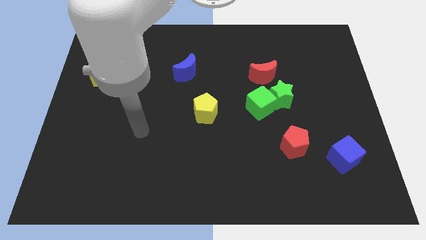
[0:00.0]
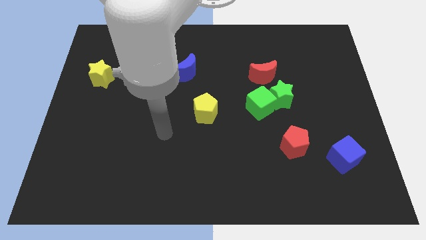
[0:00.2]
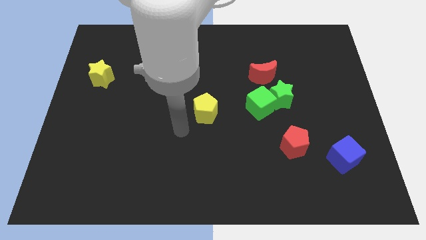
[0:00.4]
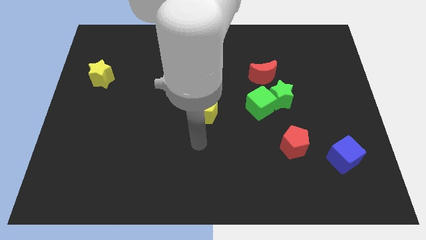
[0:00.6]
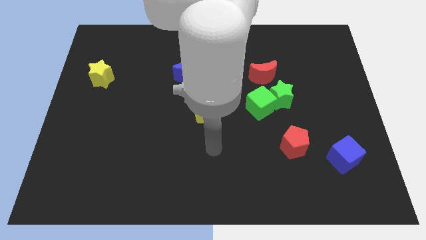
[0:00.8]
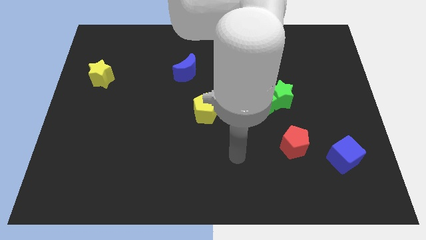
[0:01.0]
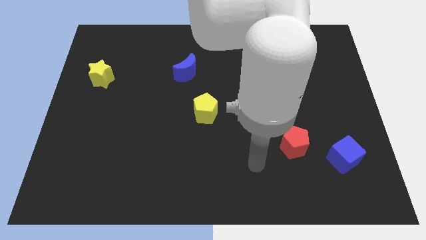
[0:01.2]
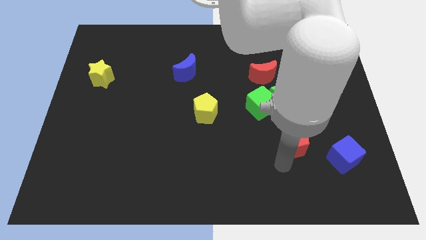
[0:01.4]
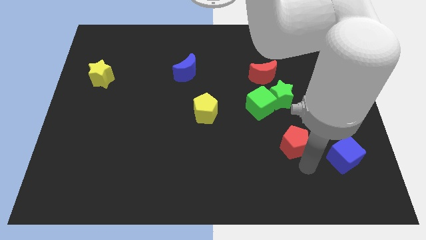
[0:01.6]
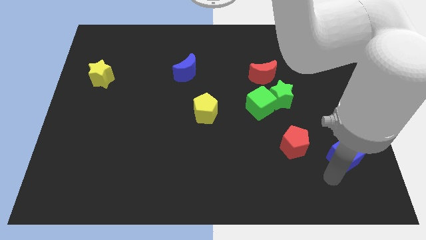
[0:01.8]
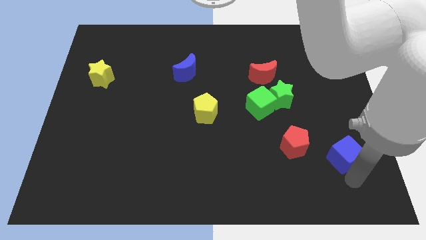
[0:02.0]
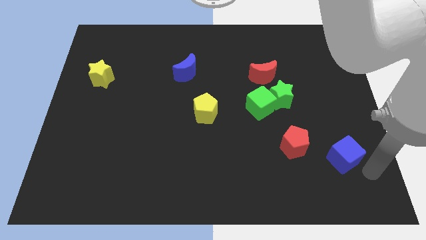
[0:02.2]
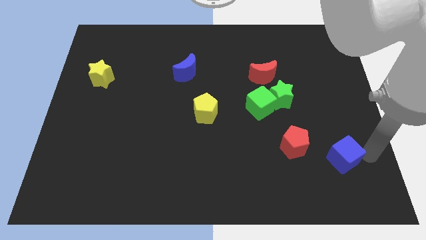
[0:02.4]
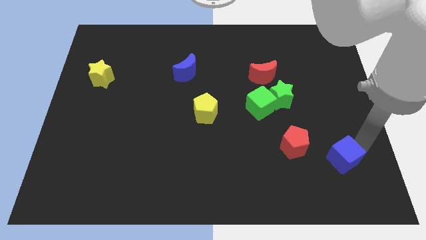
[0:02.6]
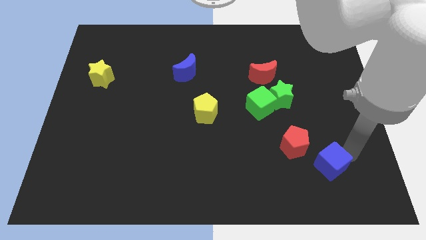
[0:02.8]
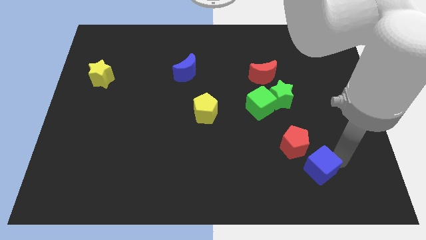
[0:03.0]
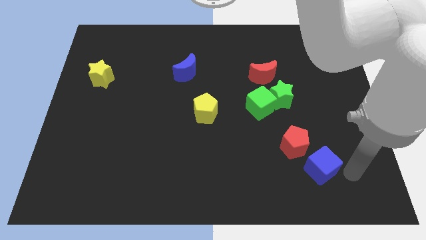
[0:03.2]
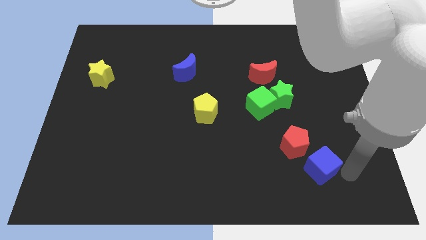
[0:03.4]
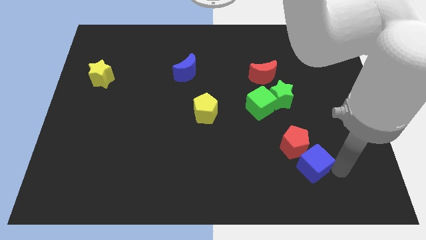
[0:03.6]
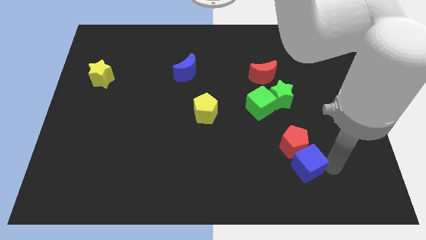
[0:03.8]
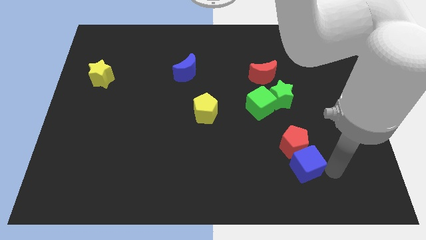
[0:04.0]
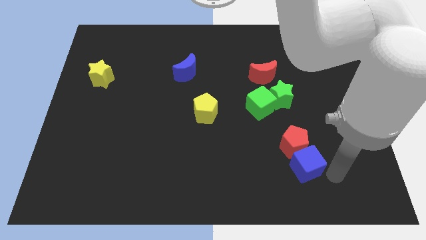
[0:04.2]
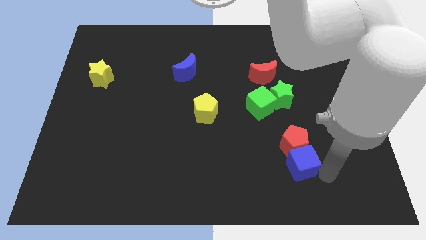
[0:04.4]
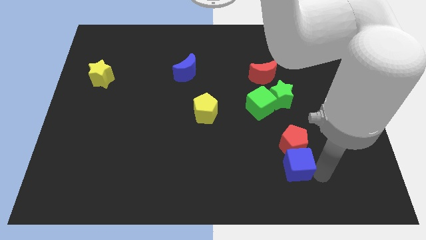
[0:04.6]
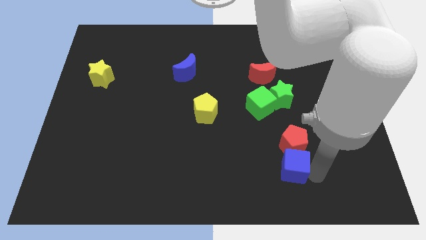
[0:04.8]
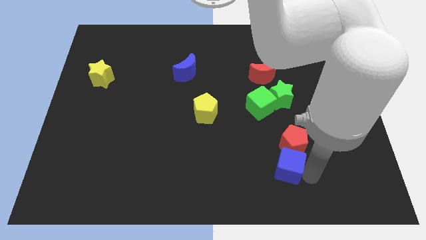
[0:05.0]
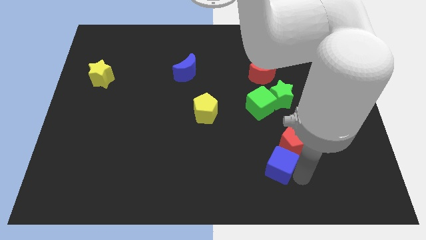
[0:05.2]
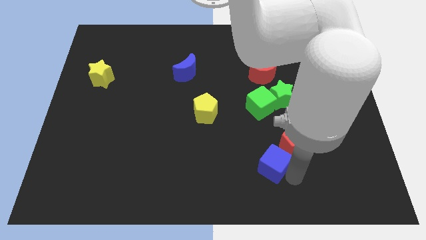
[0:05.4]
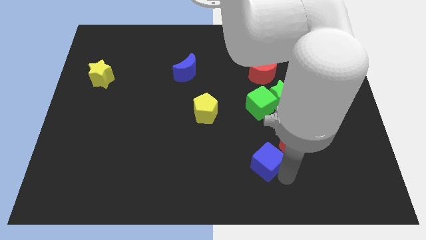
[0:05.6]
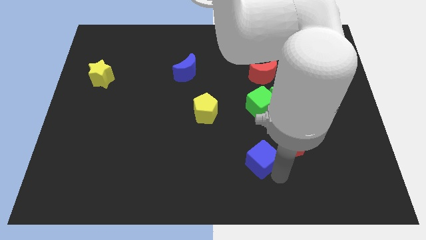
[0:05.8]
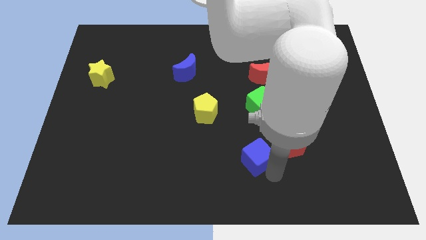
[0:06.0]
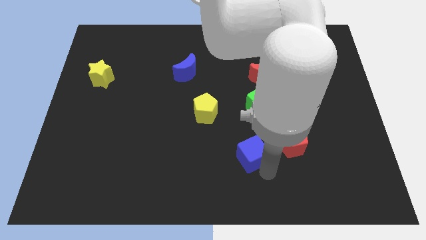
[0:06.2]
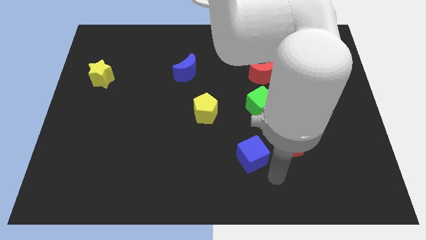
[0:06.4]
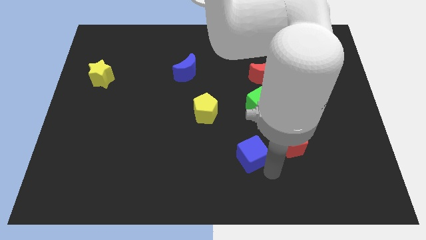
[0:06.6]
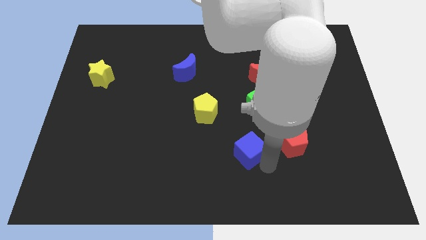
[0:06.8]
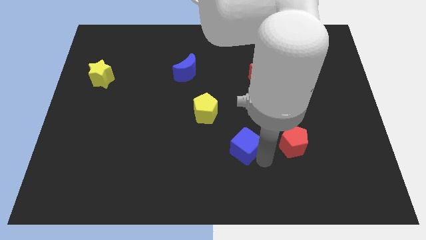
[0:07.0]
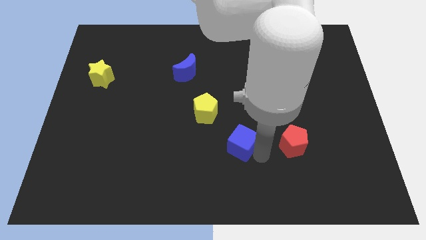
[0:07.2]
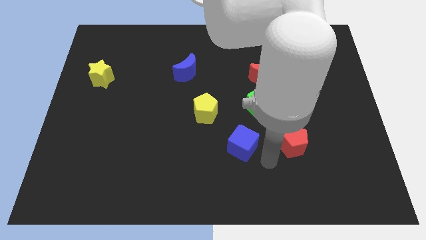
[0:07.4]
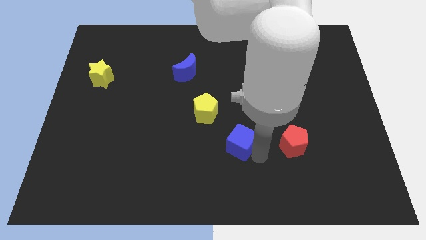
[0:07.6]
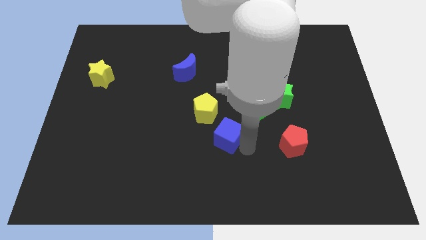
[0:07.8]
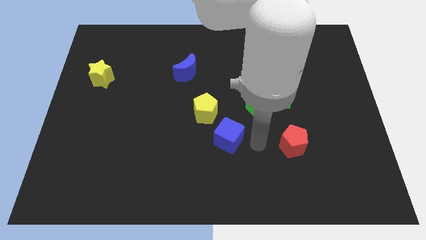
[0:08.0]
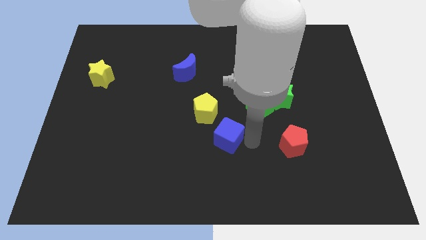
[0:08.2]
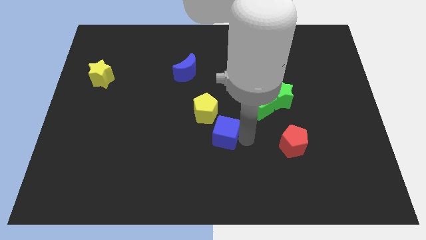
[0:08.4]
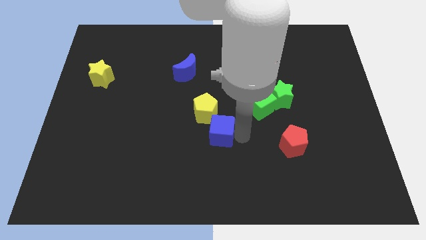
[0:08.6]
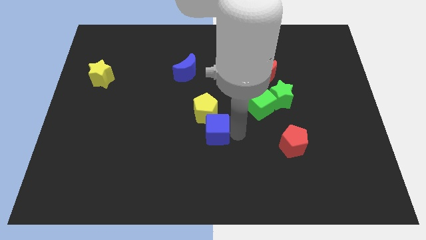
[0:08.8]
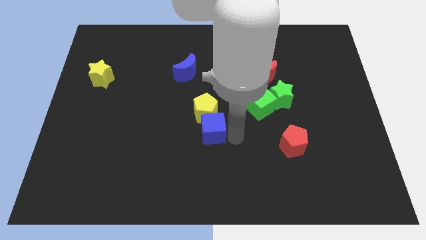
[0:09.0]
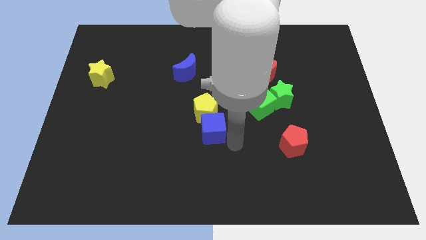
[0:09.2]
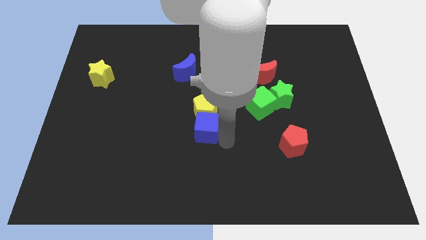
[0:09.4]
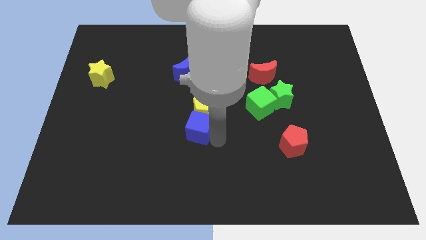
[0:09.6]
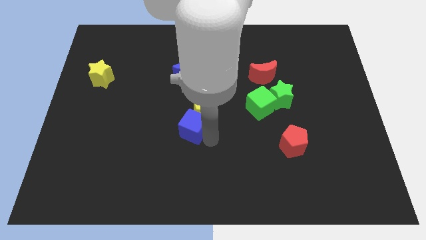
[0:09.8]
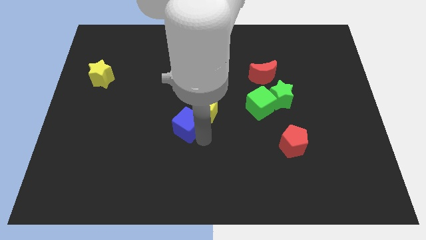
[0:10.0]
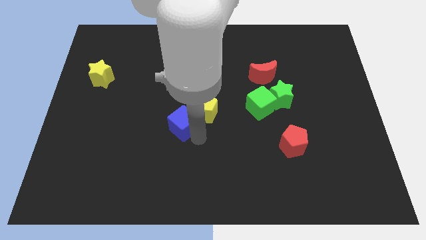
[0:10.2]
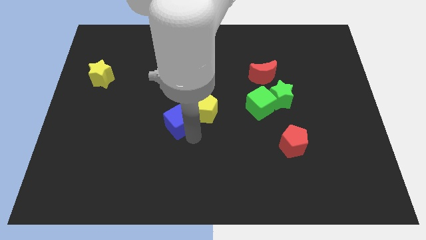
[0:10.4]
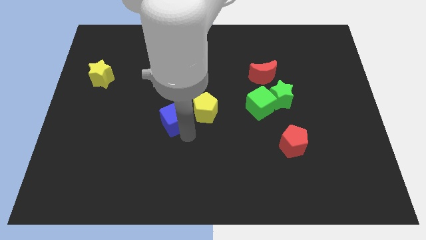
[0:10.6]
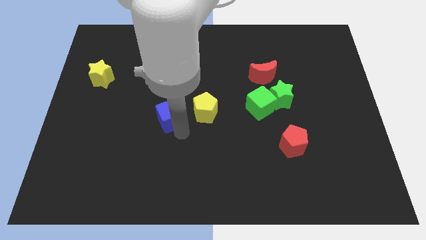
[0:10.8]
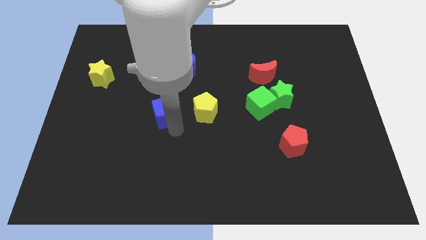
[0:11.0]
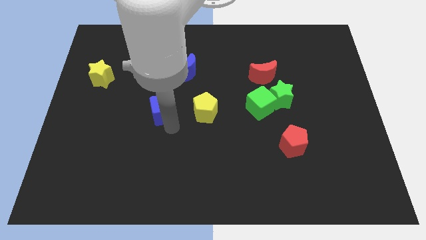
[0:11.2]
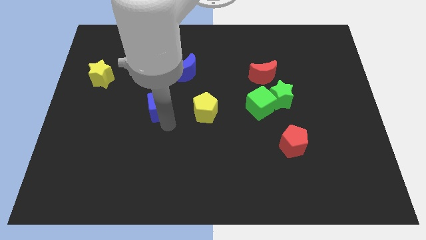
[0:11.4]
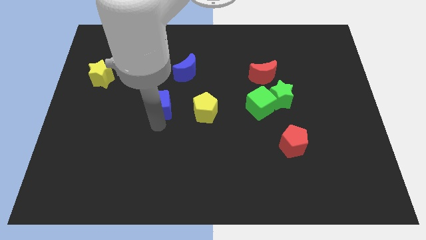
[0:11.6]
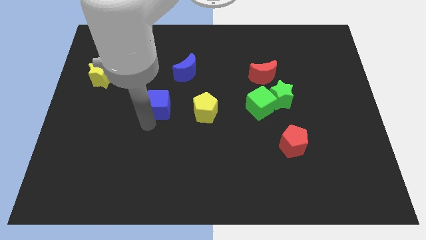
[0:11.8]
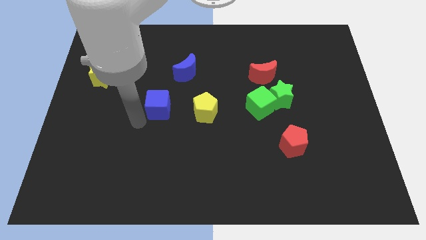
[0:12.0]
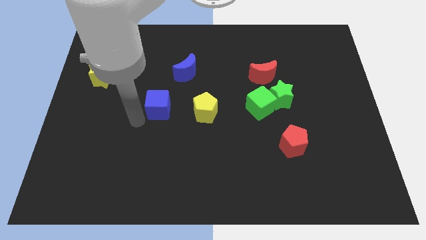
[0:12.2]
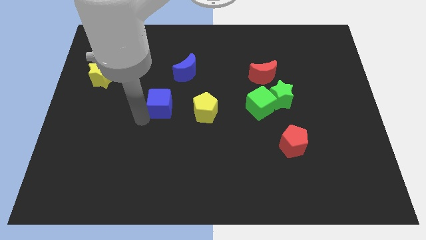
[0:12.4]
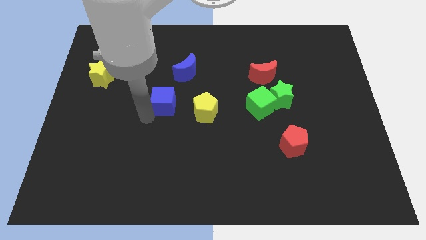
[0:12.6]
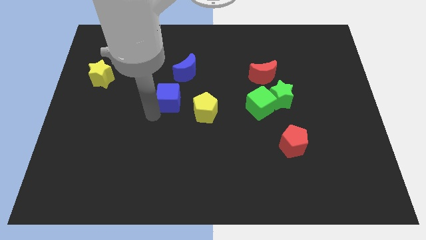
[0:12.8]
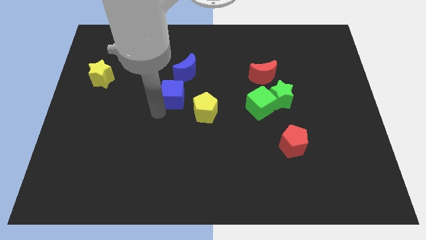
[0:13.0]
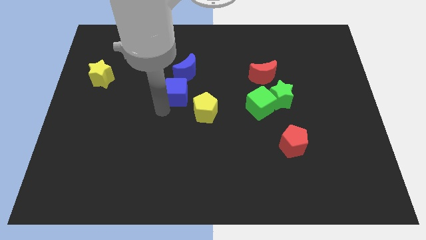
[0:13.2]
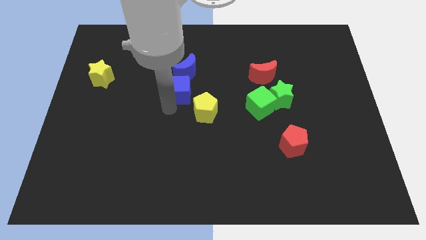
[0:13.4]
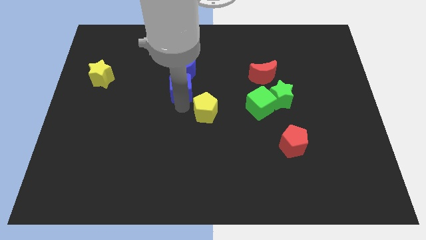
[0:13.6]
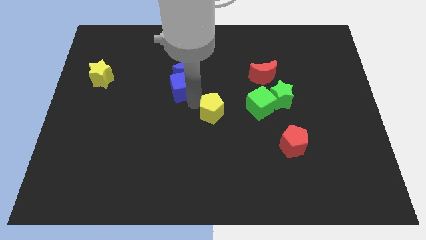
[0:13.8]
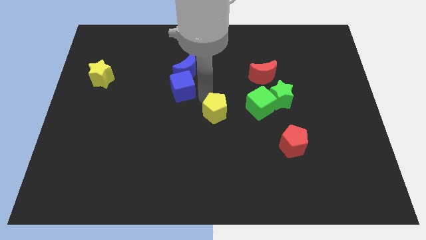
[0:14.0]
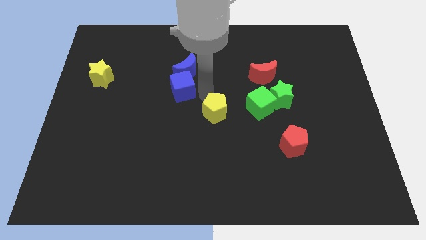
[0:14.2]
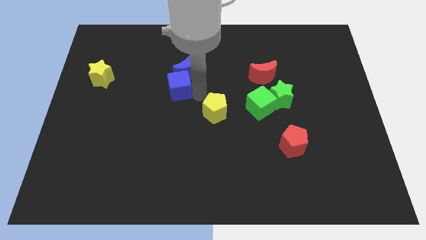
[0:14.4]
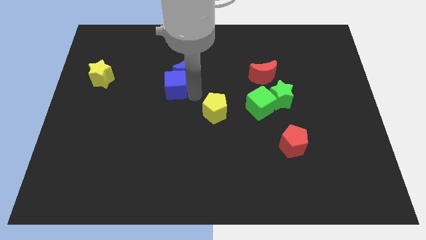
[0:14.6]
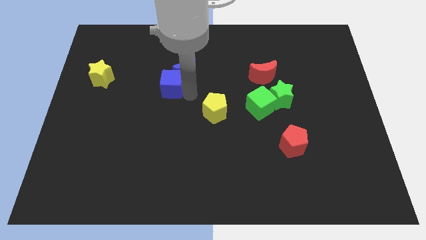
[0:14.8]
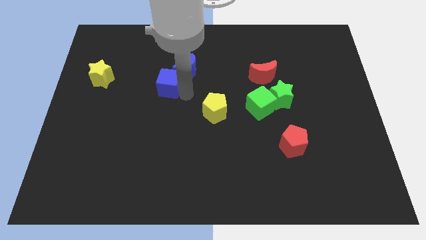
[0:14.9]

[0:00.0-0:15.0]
put the blue cube just left of the blue moon

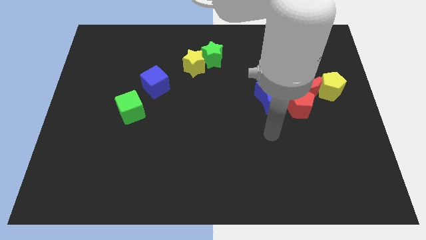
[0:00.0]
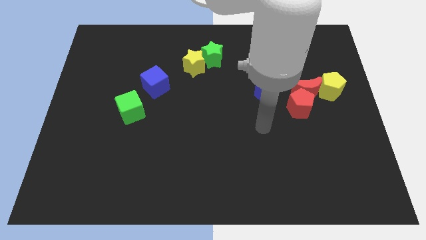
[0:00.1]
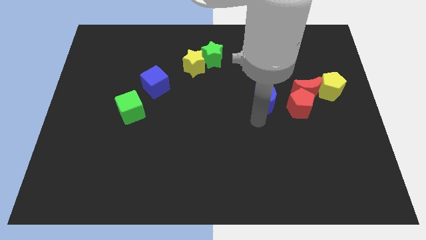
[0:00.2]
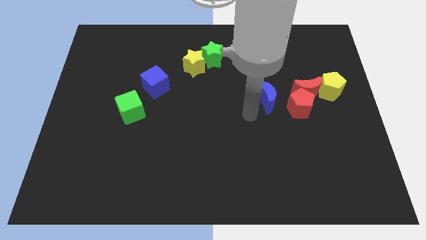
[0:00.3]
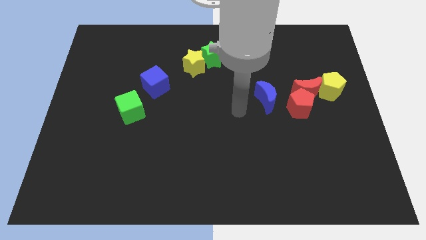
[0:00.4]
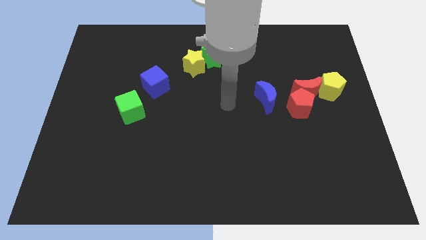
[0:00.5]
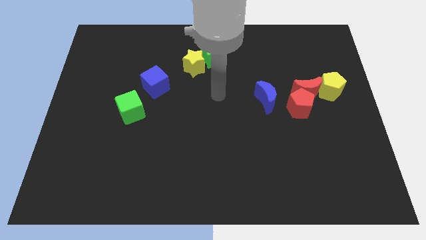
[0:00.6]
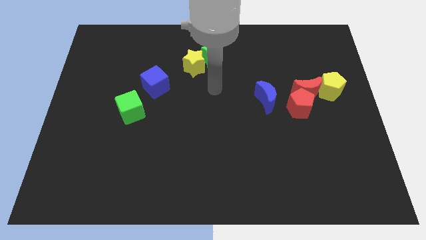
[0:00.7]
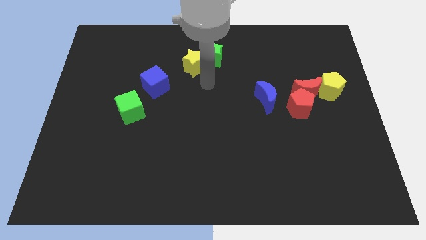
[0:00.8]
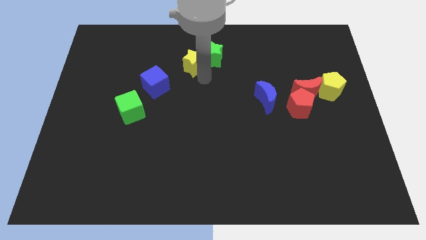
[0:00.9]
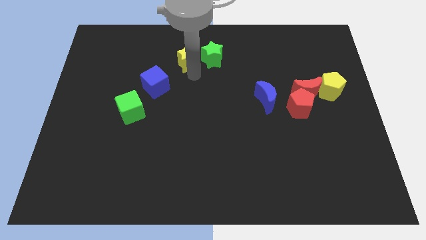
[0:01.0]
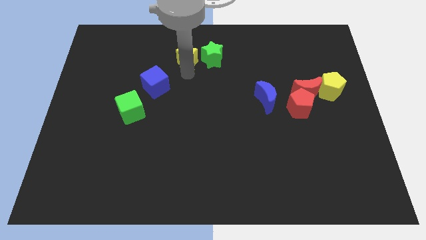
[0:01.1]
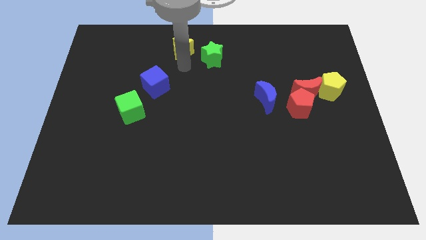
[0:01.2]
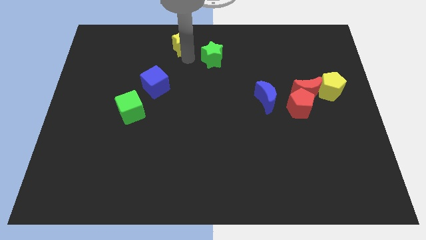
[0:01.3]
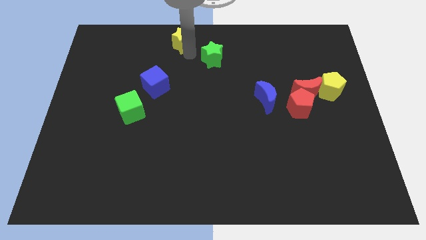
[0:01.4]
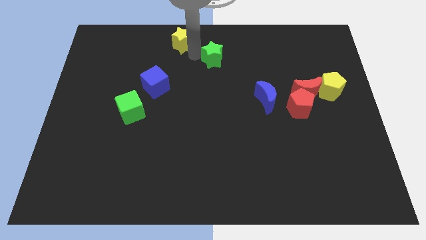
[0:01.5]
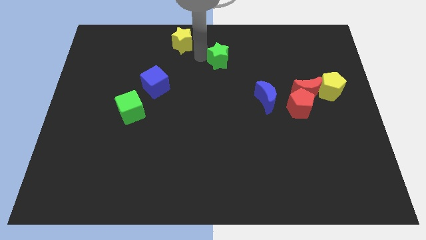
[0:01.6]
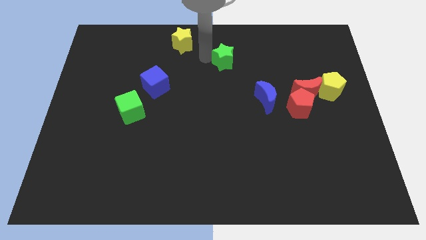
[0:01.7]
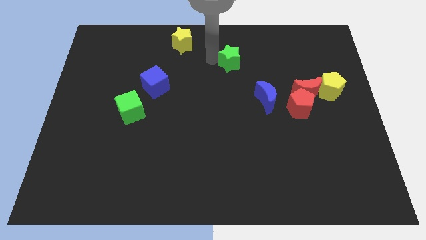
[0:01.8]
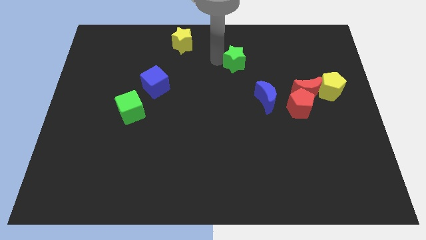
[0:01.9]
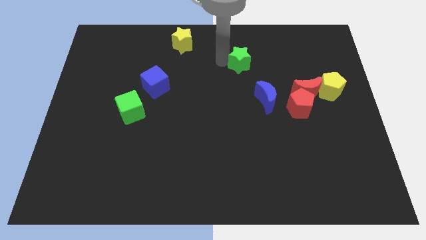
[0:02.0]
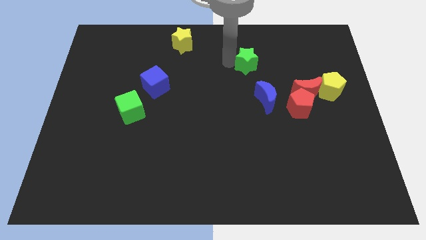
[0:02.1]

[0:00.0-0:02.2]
push the green star to the top side of the blue moon
